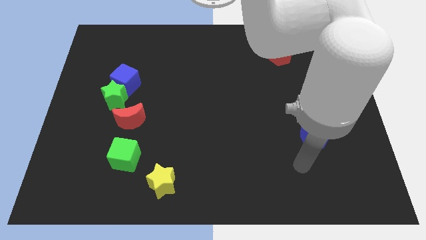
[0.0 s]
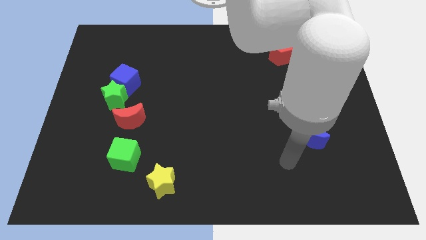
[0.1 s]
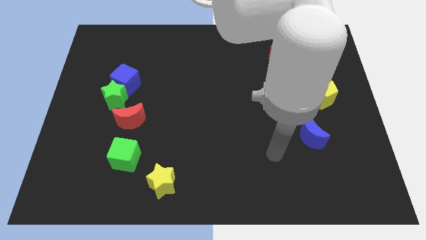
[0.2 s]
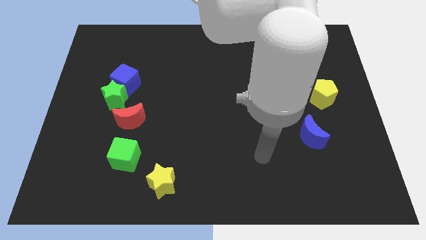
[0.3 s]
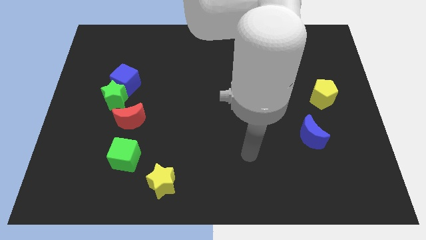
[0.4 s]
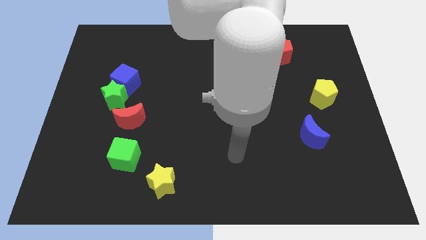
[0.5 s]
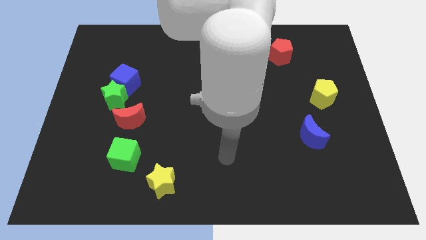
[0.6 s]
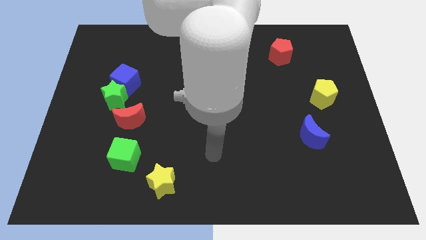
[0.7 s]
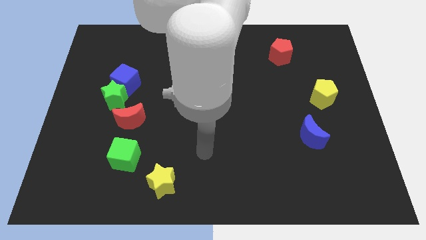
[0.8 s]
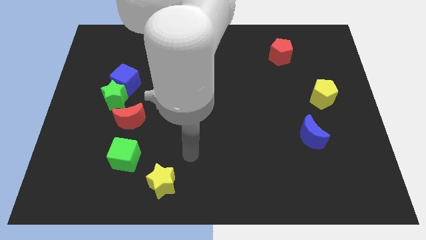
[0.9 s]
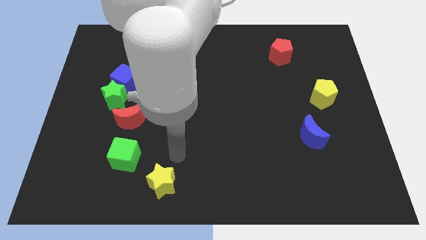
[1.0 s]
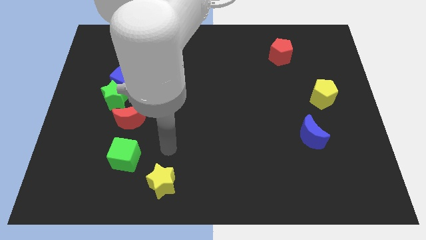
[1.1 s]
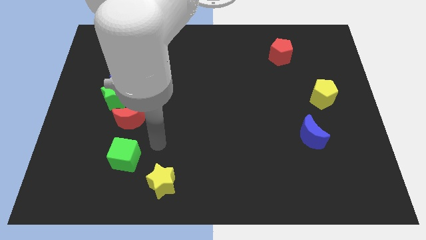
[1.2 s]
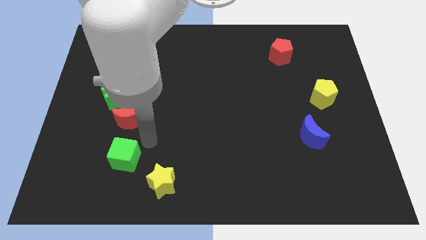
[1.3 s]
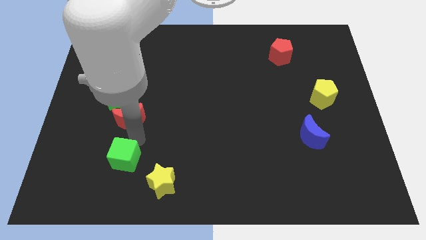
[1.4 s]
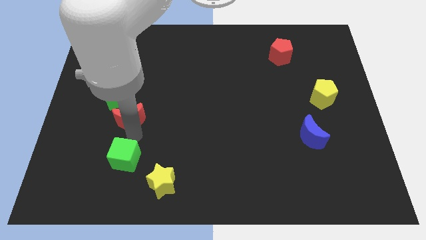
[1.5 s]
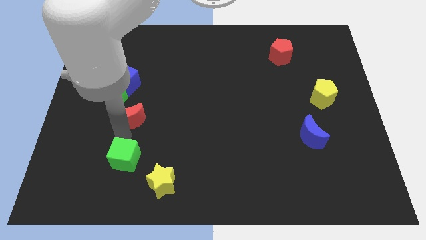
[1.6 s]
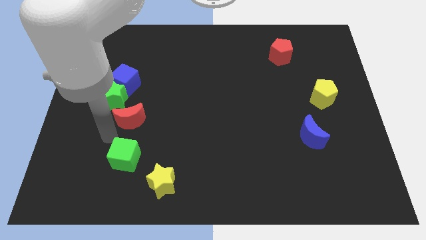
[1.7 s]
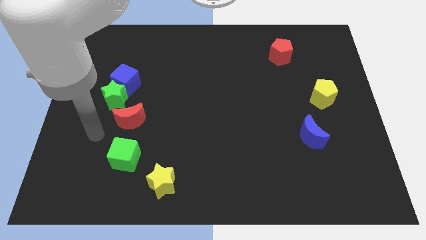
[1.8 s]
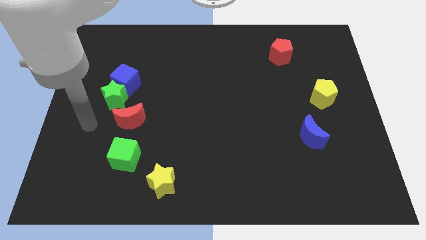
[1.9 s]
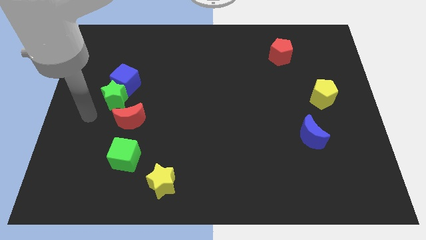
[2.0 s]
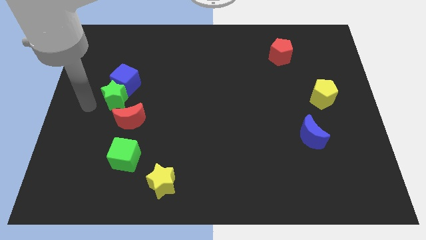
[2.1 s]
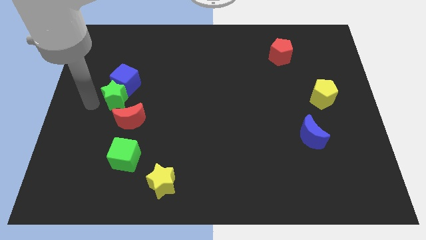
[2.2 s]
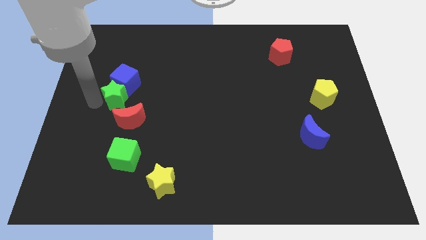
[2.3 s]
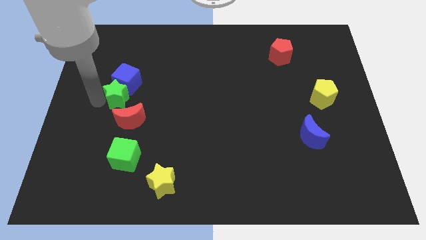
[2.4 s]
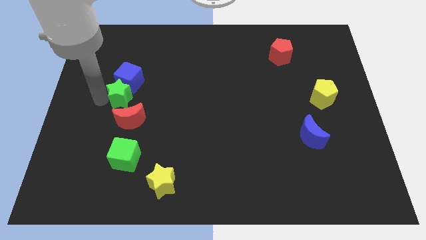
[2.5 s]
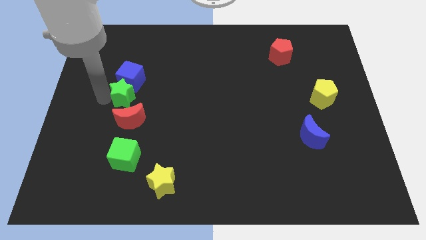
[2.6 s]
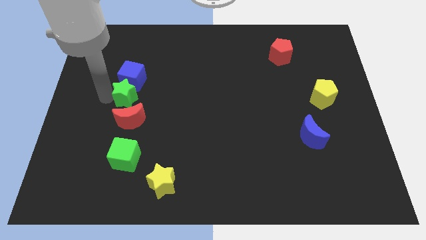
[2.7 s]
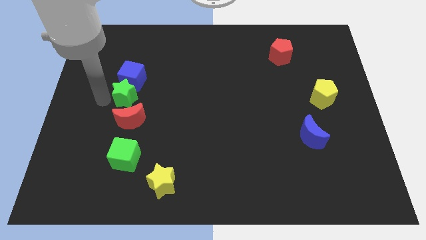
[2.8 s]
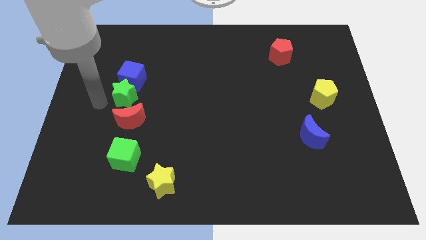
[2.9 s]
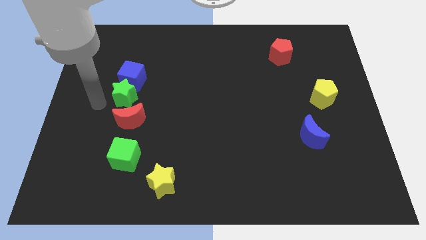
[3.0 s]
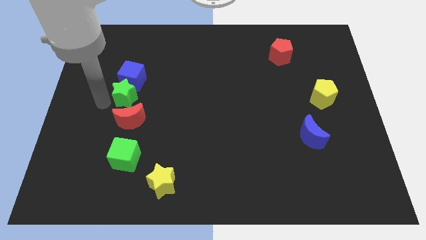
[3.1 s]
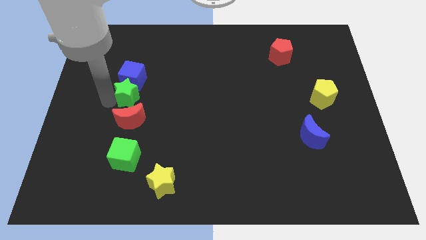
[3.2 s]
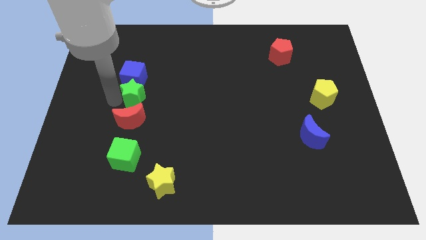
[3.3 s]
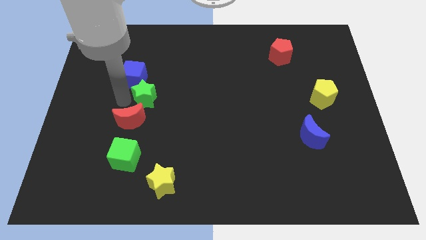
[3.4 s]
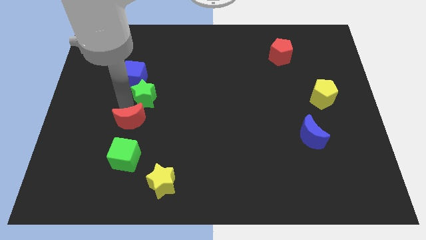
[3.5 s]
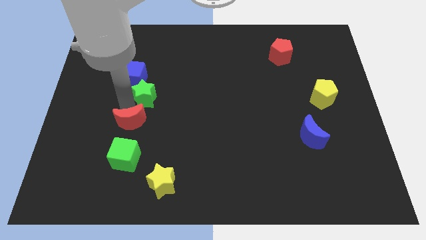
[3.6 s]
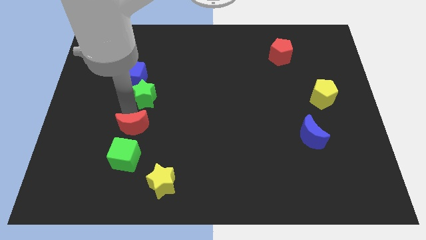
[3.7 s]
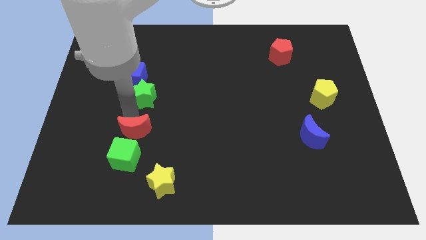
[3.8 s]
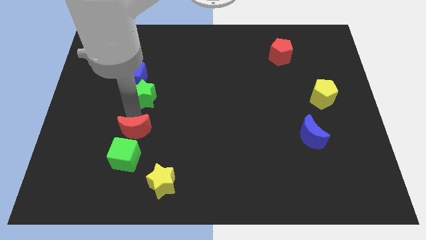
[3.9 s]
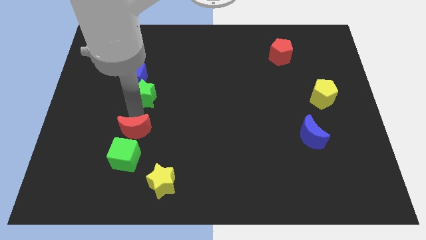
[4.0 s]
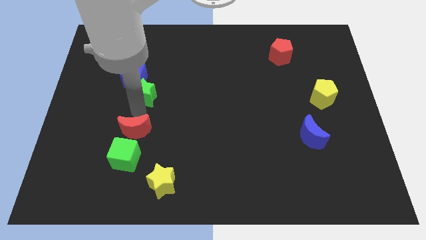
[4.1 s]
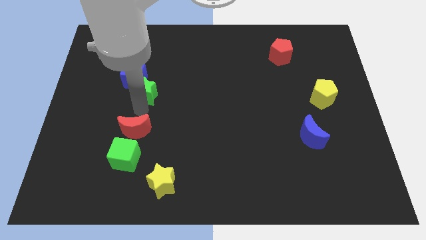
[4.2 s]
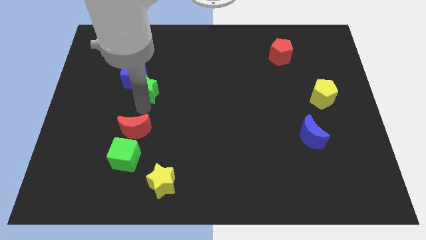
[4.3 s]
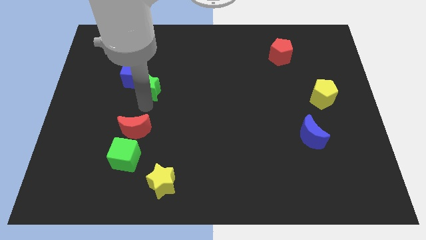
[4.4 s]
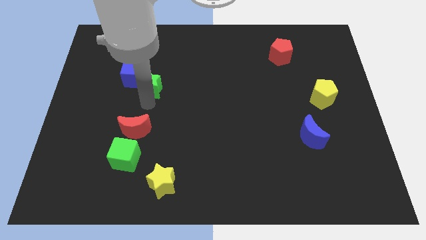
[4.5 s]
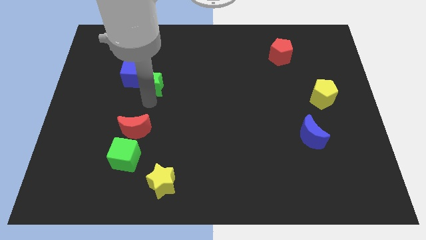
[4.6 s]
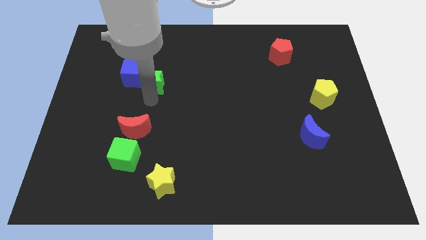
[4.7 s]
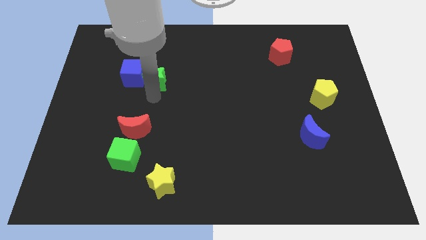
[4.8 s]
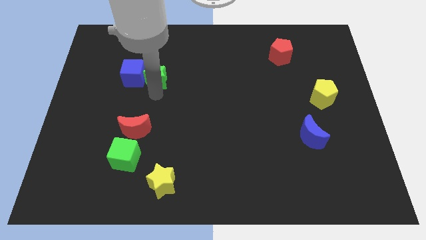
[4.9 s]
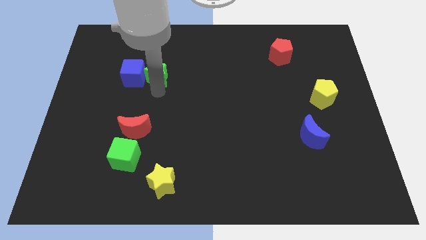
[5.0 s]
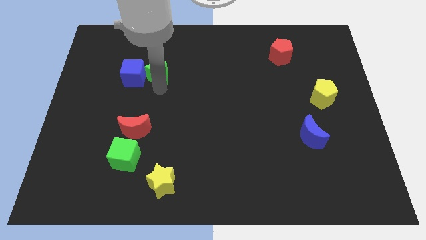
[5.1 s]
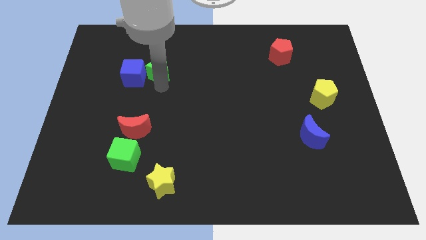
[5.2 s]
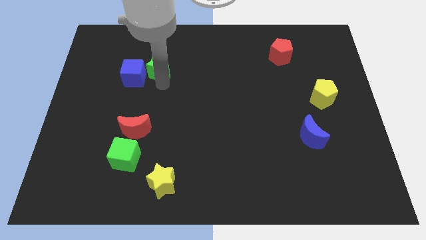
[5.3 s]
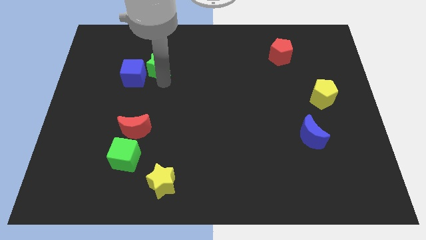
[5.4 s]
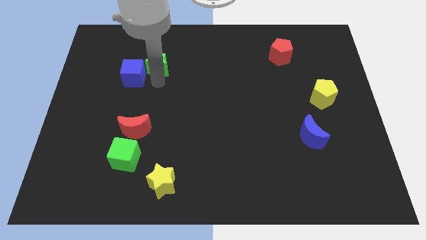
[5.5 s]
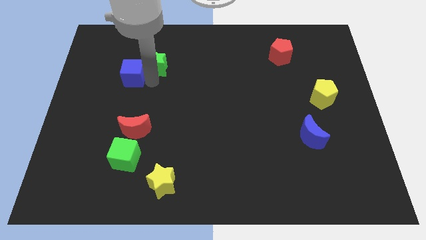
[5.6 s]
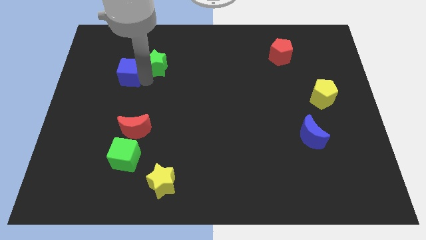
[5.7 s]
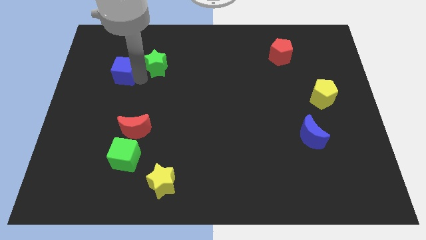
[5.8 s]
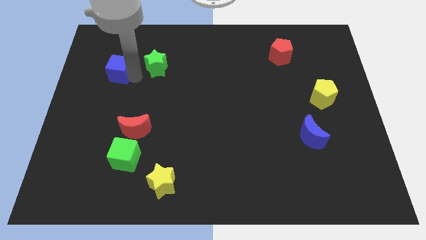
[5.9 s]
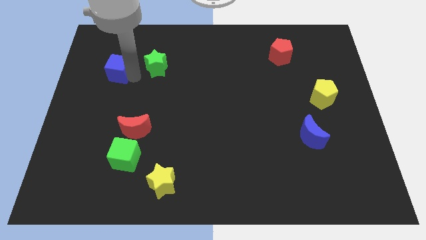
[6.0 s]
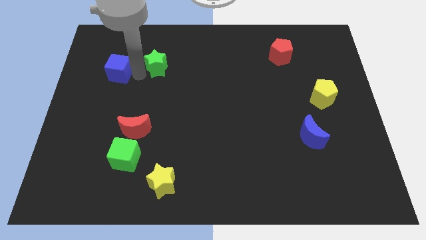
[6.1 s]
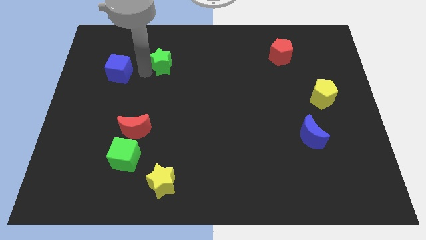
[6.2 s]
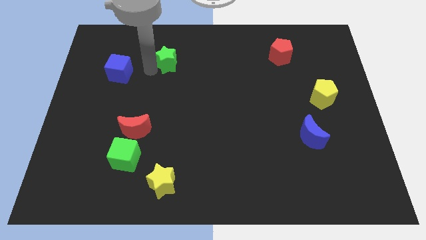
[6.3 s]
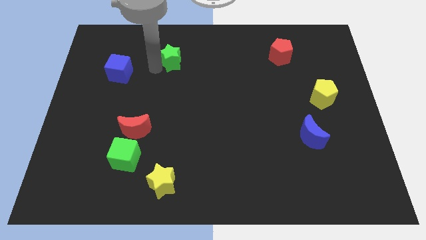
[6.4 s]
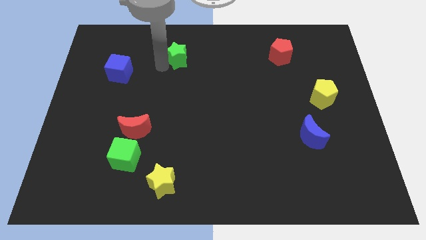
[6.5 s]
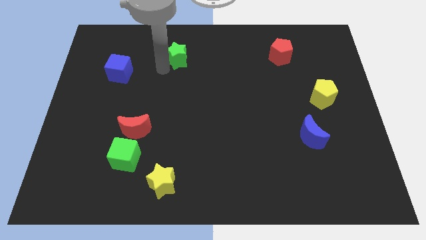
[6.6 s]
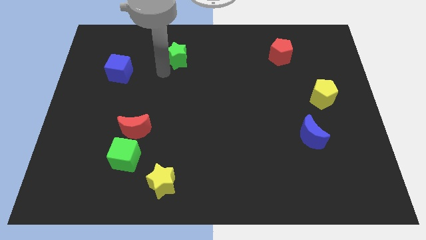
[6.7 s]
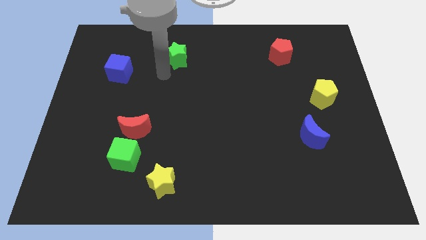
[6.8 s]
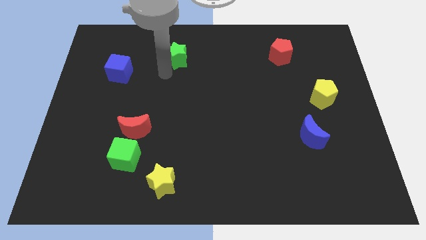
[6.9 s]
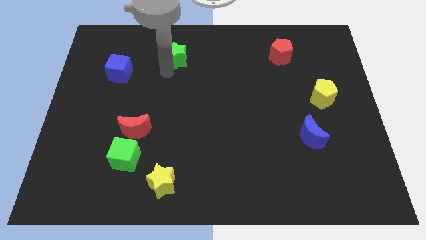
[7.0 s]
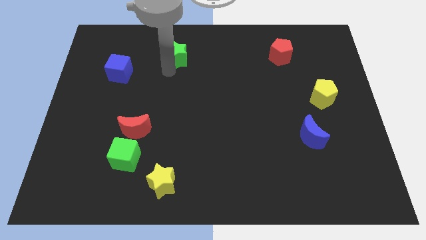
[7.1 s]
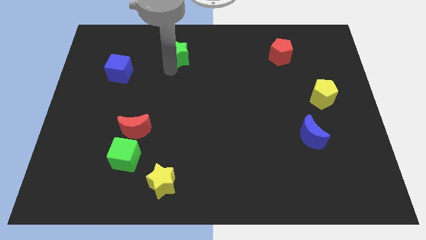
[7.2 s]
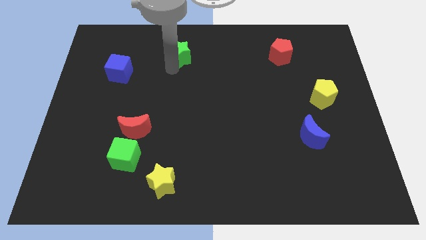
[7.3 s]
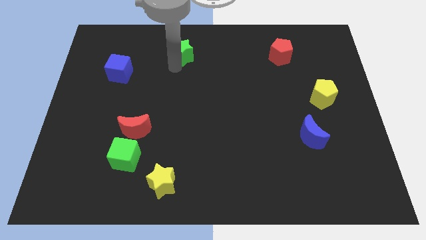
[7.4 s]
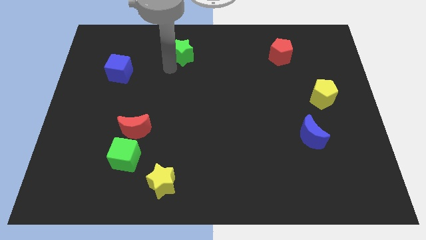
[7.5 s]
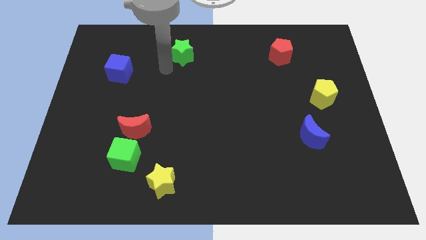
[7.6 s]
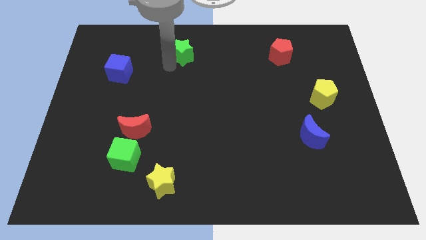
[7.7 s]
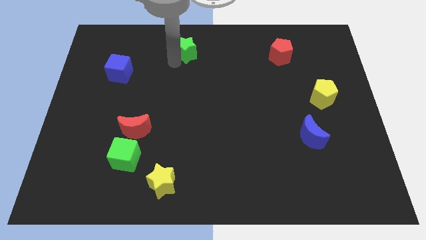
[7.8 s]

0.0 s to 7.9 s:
slide the green star to the towards your base
